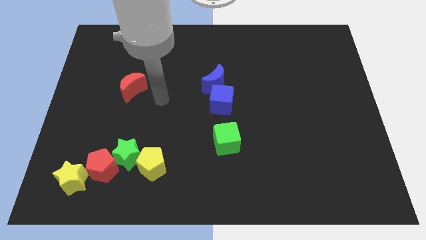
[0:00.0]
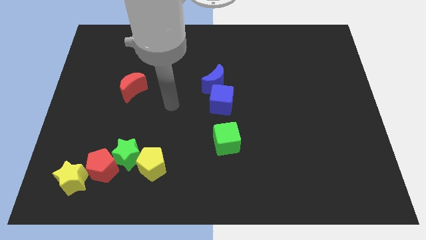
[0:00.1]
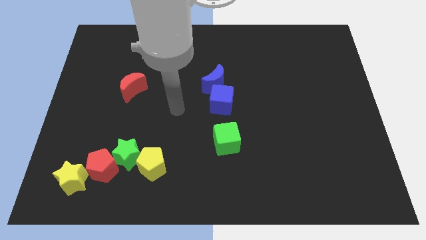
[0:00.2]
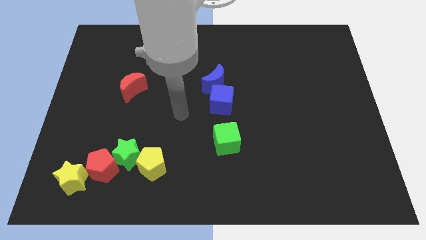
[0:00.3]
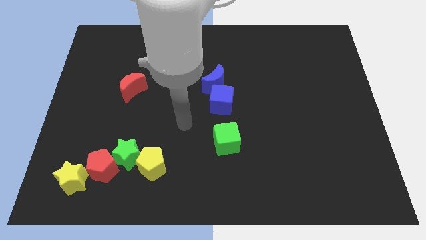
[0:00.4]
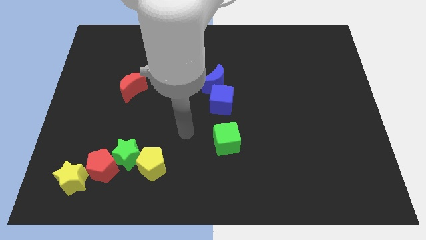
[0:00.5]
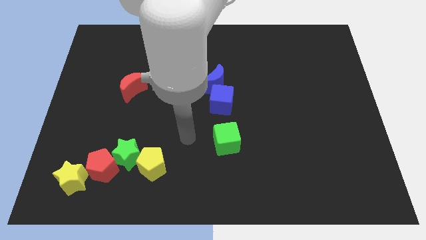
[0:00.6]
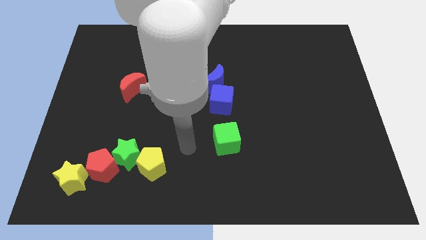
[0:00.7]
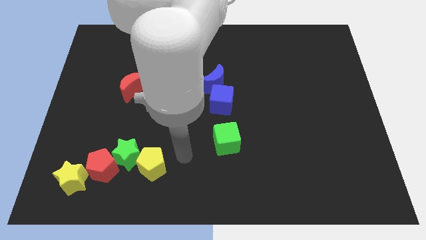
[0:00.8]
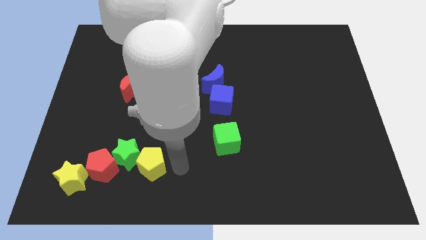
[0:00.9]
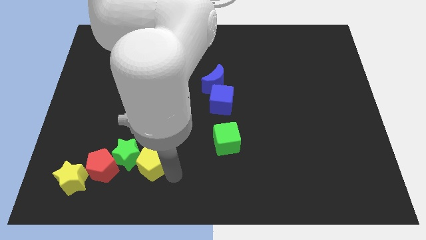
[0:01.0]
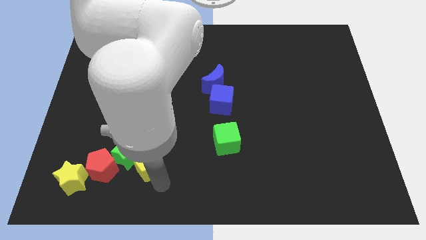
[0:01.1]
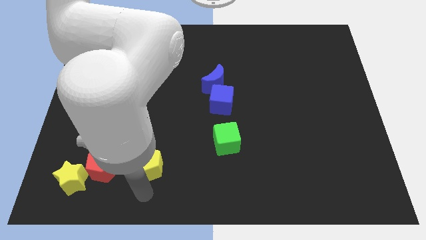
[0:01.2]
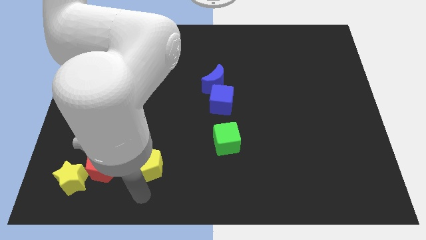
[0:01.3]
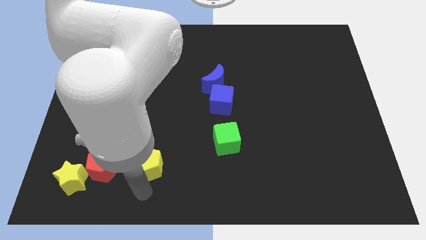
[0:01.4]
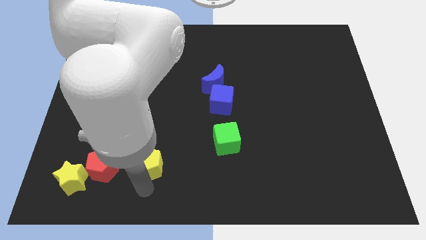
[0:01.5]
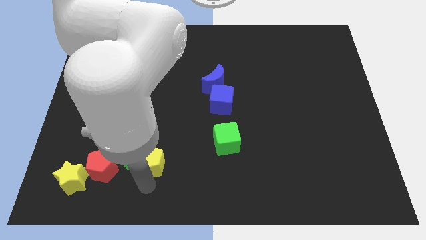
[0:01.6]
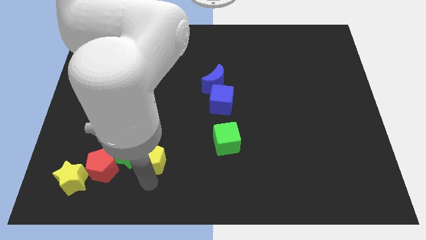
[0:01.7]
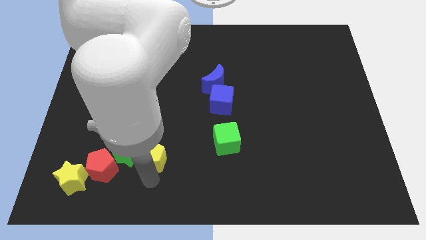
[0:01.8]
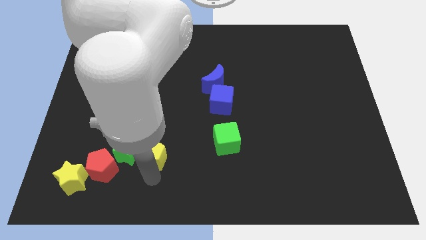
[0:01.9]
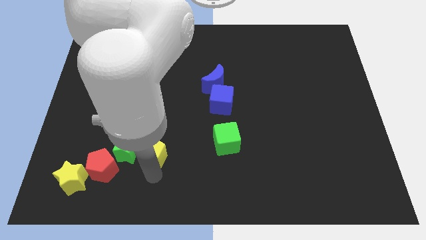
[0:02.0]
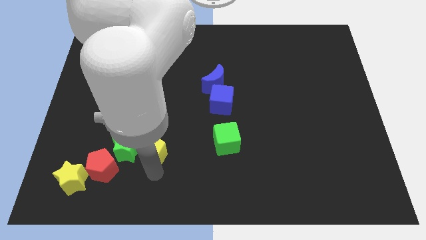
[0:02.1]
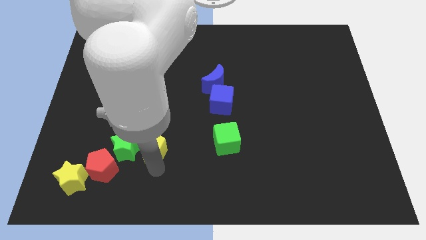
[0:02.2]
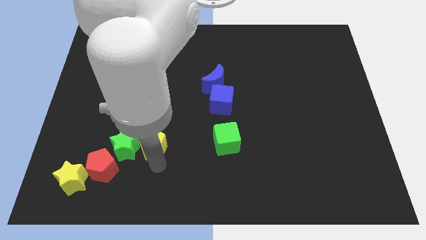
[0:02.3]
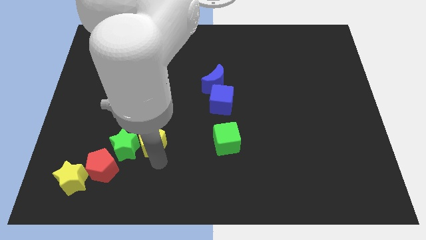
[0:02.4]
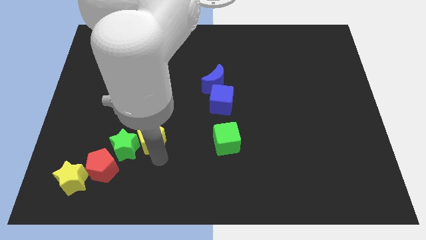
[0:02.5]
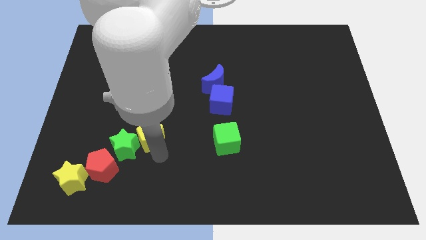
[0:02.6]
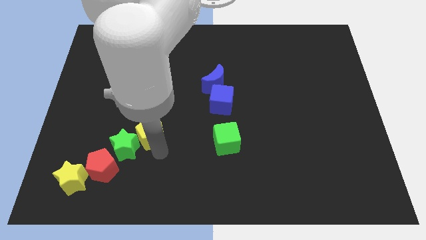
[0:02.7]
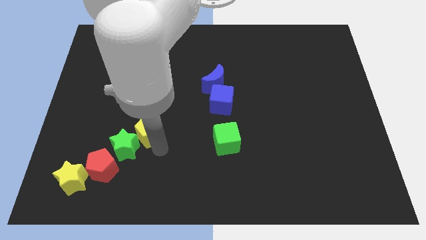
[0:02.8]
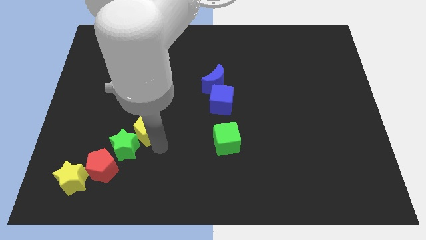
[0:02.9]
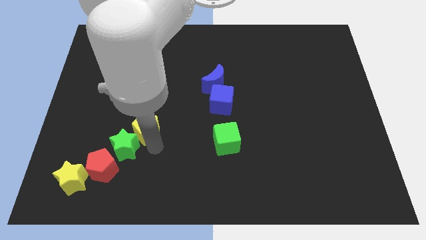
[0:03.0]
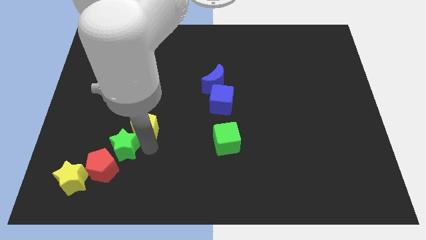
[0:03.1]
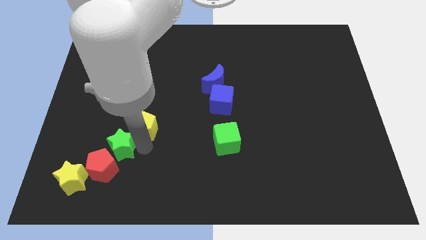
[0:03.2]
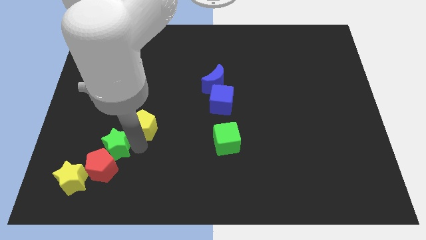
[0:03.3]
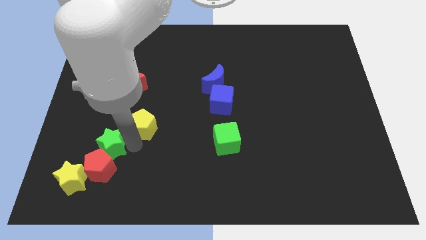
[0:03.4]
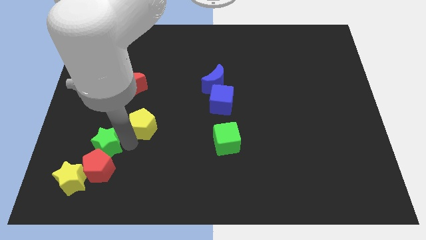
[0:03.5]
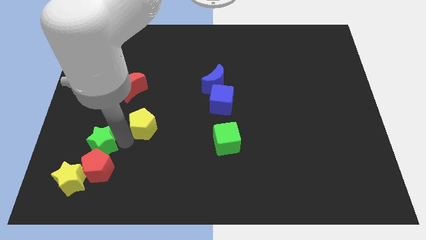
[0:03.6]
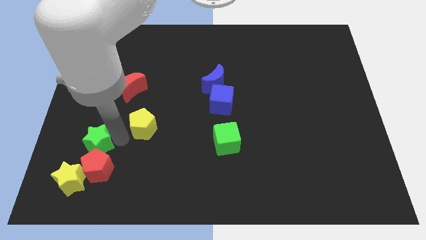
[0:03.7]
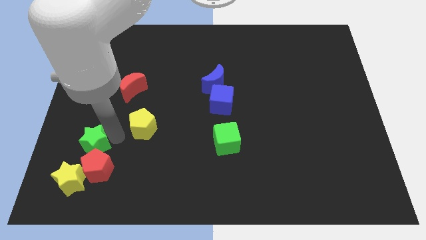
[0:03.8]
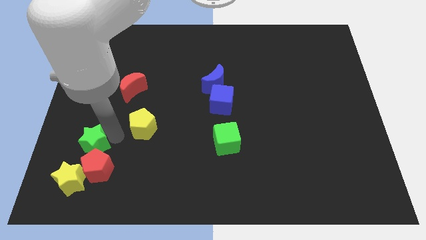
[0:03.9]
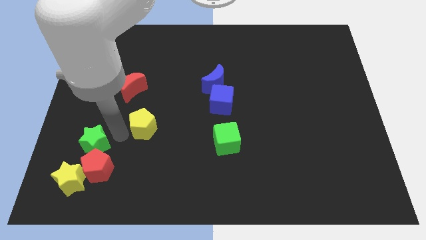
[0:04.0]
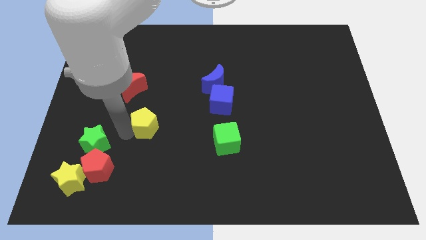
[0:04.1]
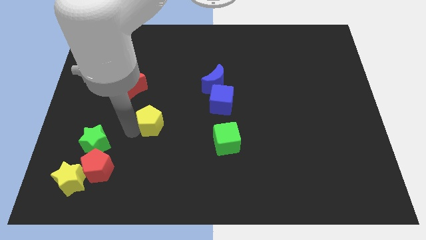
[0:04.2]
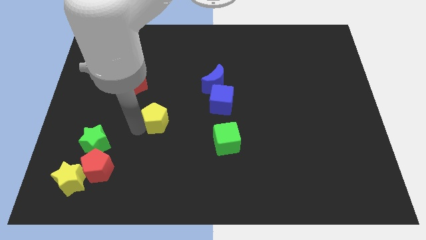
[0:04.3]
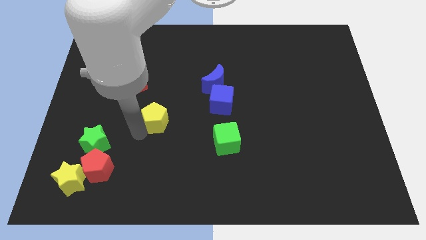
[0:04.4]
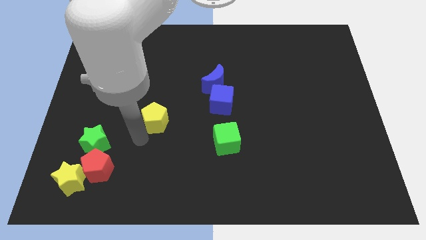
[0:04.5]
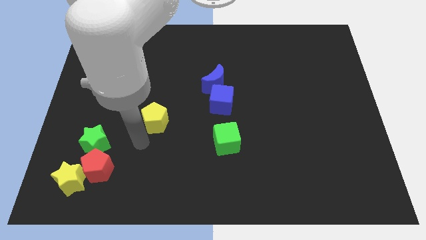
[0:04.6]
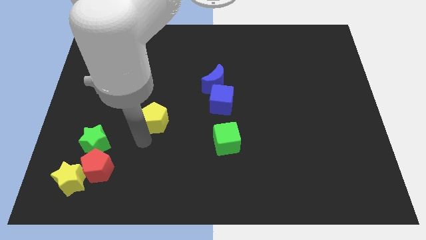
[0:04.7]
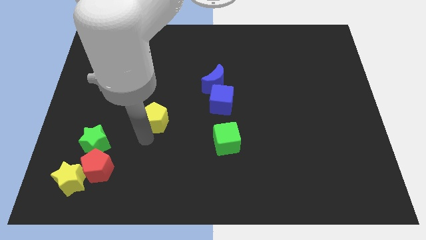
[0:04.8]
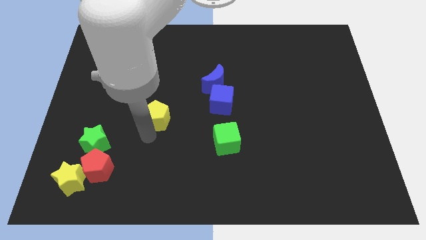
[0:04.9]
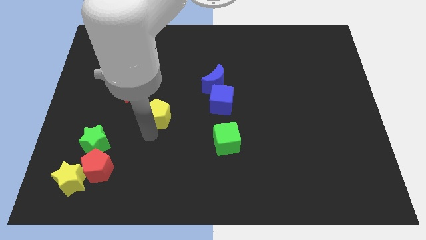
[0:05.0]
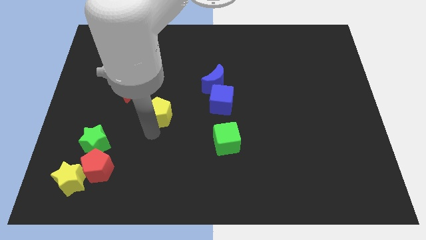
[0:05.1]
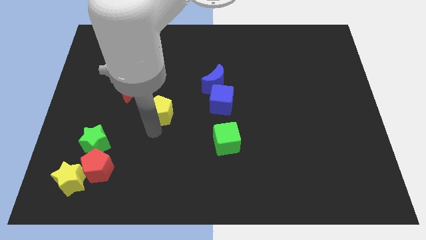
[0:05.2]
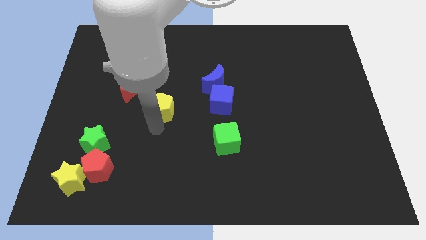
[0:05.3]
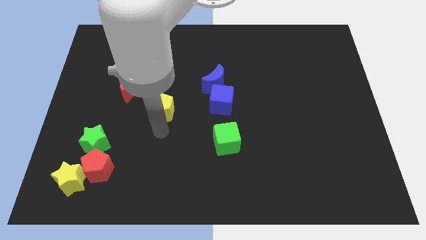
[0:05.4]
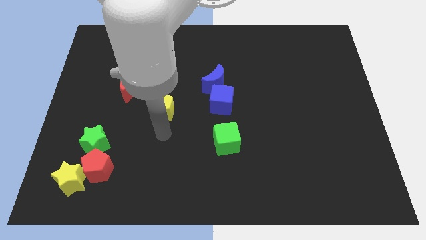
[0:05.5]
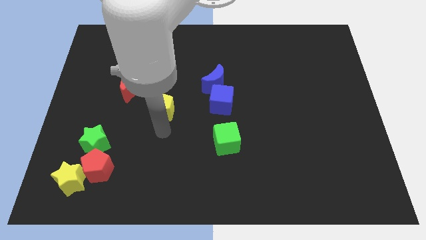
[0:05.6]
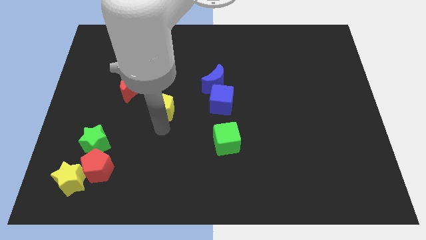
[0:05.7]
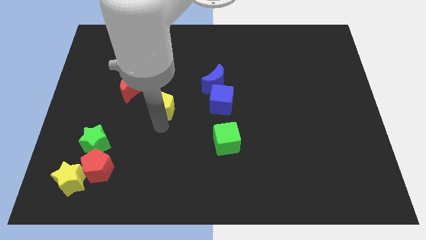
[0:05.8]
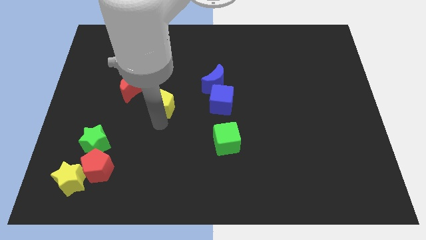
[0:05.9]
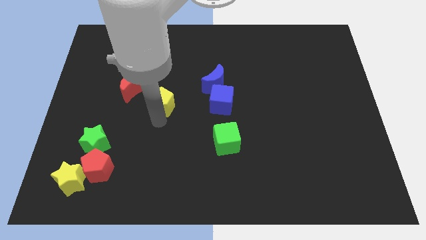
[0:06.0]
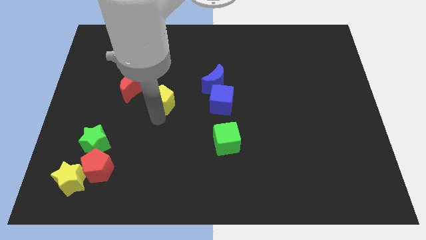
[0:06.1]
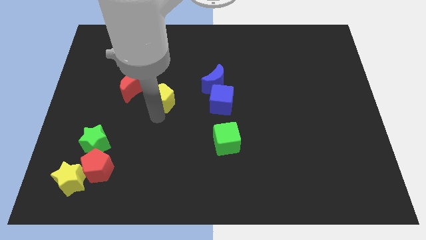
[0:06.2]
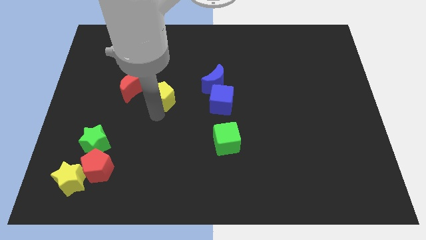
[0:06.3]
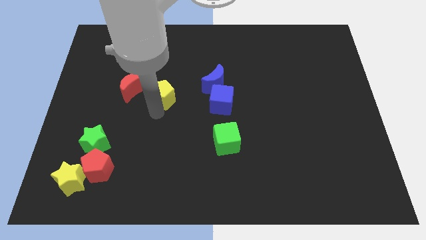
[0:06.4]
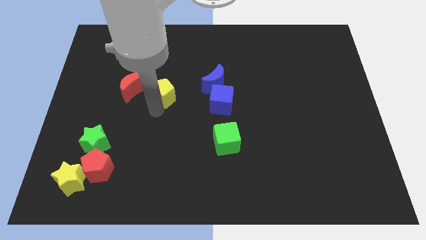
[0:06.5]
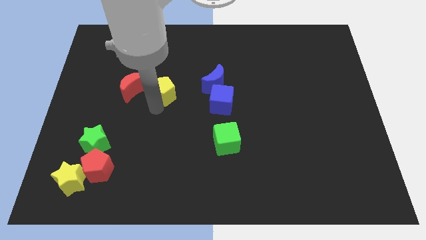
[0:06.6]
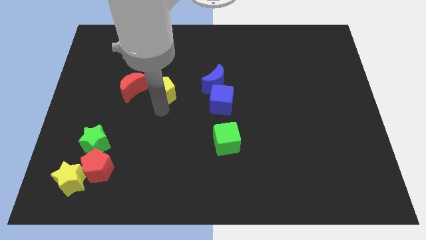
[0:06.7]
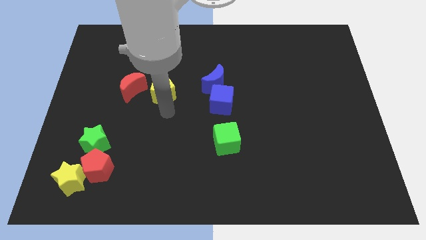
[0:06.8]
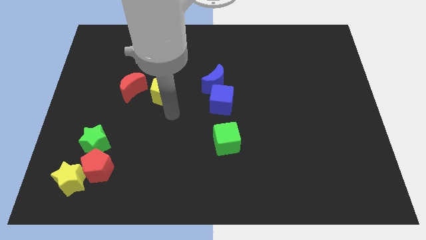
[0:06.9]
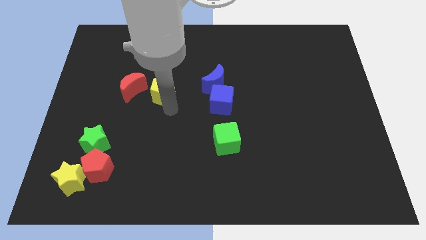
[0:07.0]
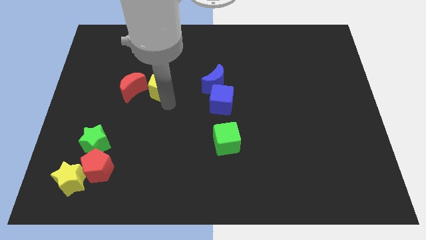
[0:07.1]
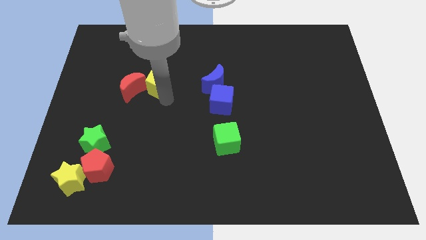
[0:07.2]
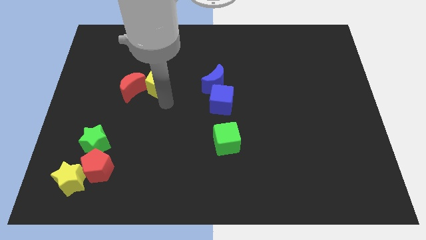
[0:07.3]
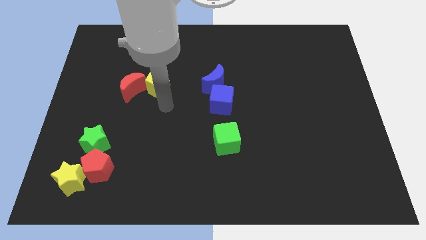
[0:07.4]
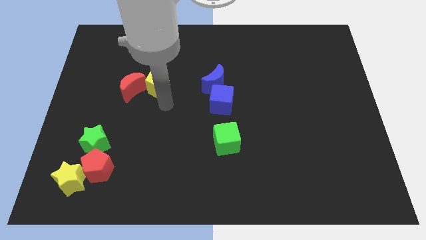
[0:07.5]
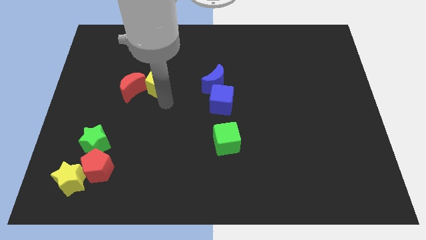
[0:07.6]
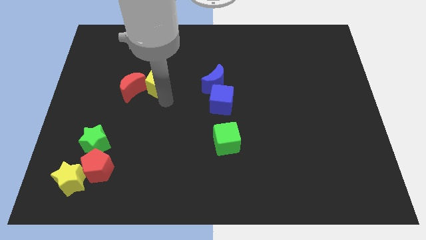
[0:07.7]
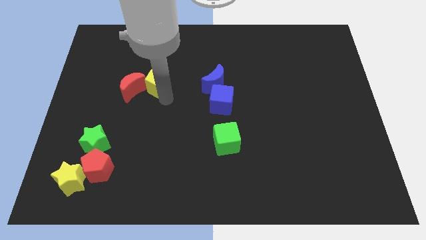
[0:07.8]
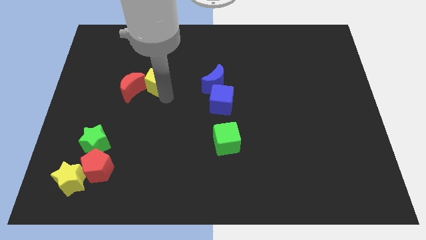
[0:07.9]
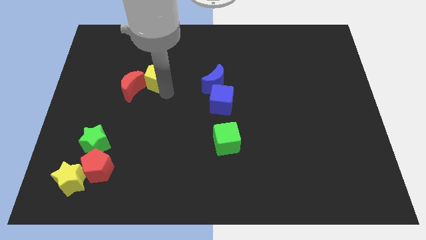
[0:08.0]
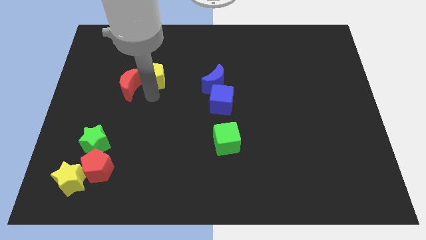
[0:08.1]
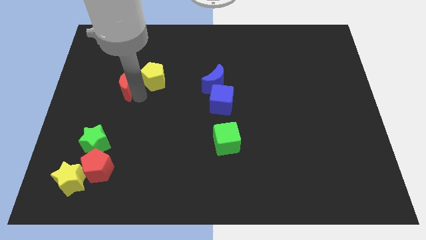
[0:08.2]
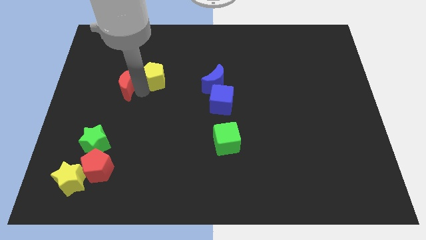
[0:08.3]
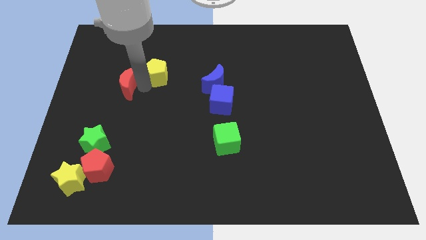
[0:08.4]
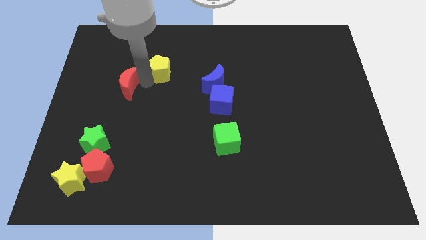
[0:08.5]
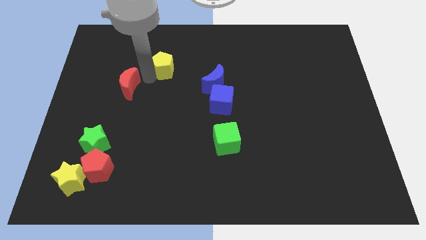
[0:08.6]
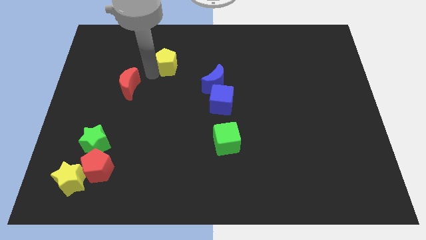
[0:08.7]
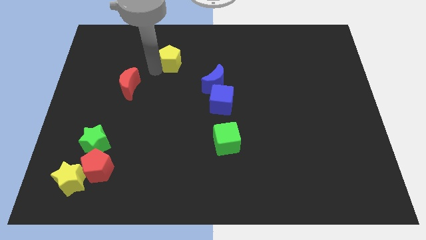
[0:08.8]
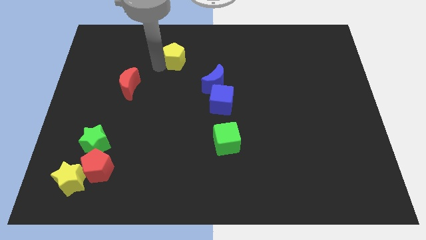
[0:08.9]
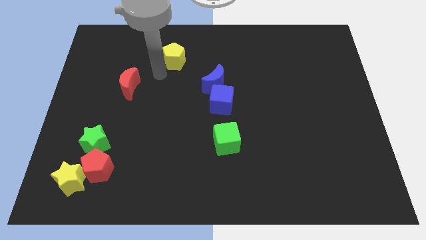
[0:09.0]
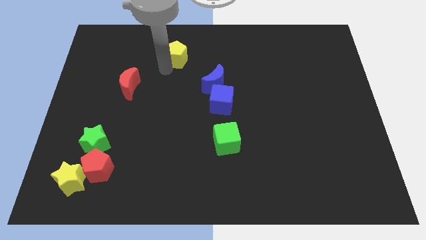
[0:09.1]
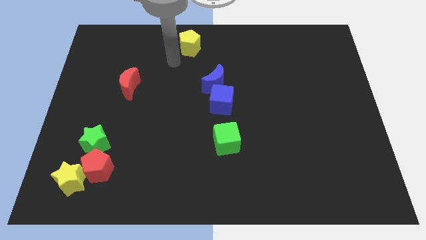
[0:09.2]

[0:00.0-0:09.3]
put the yellow pentagon to the top side
